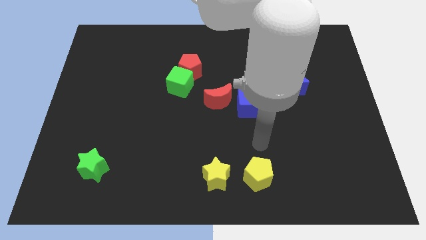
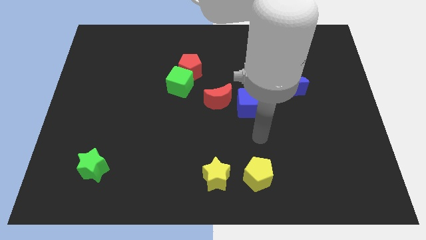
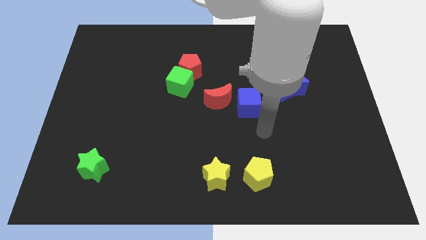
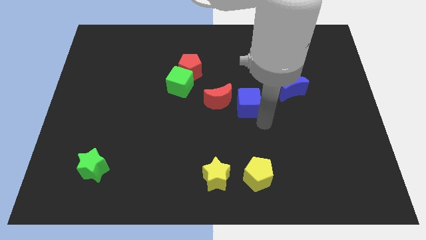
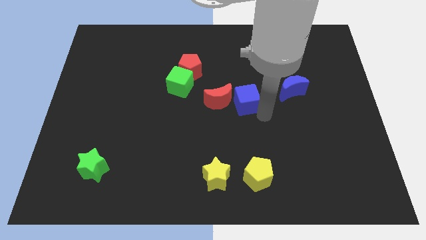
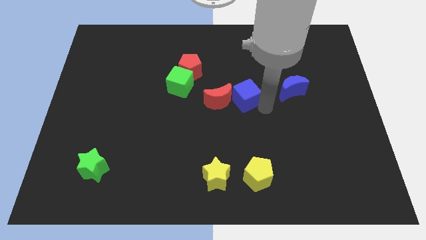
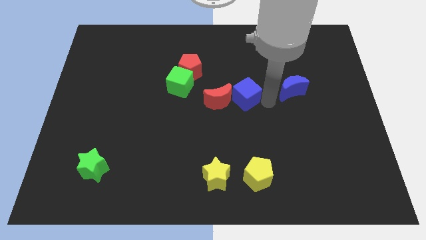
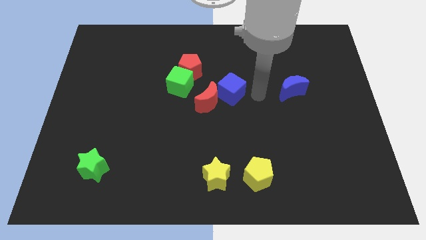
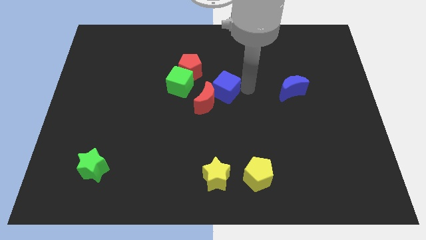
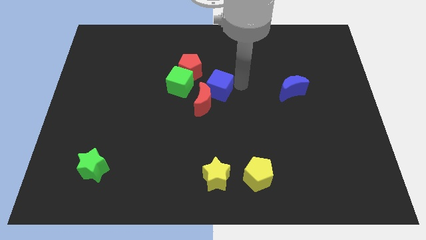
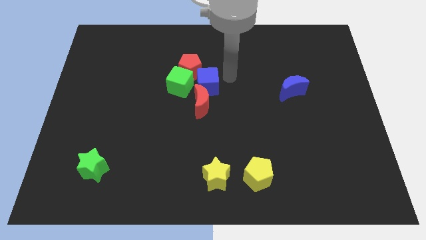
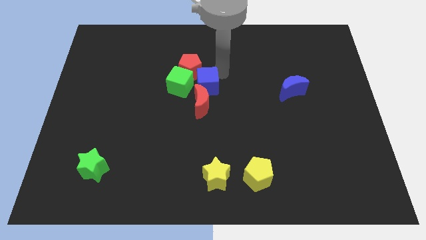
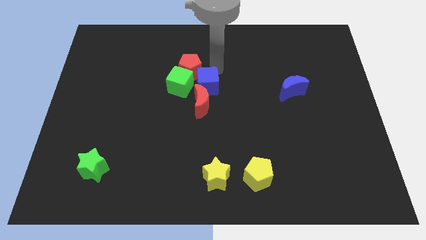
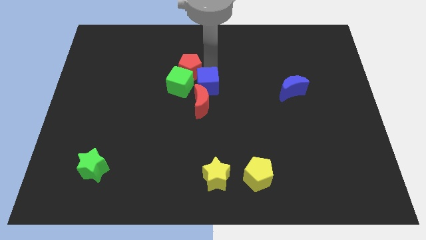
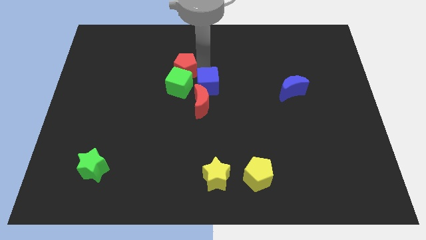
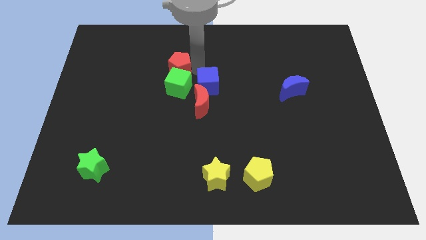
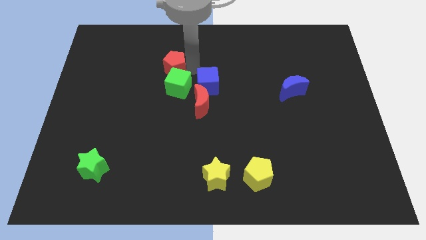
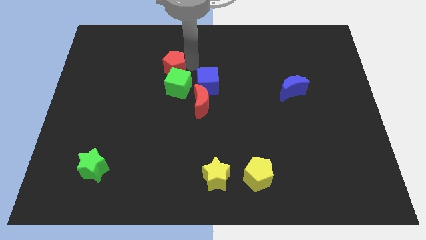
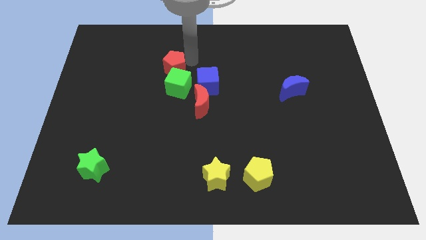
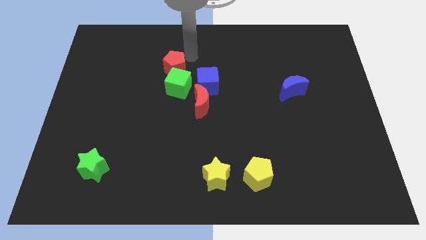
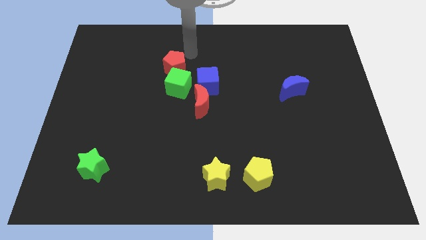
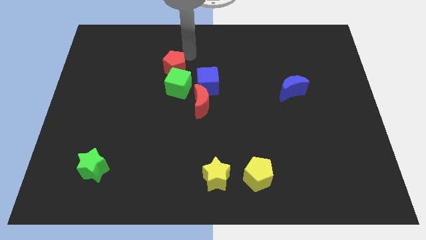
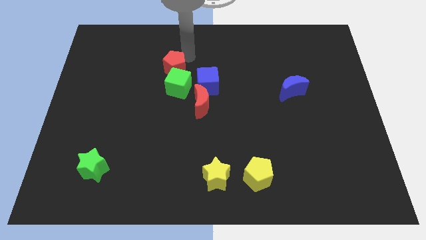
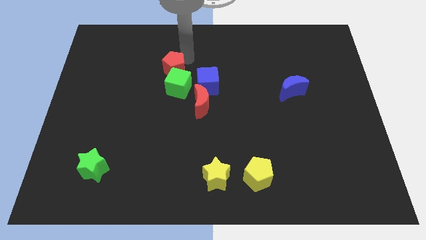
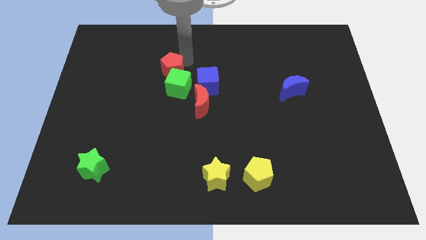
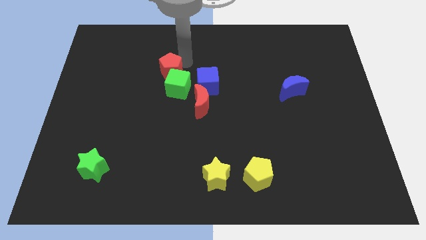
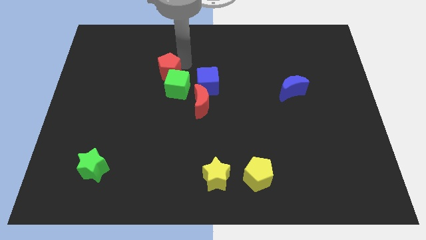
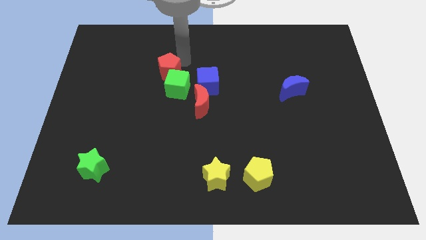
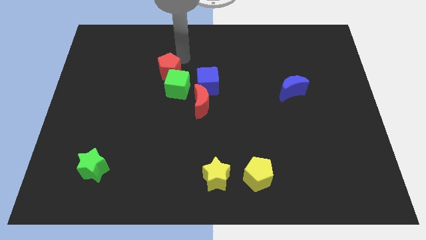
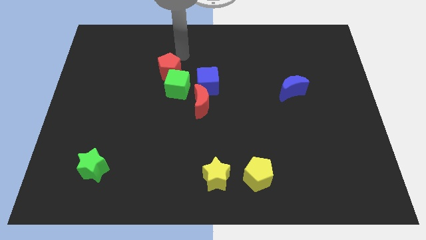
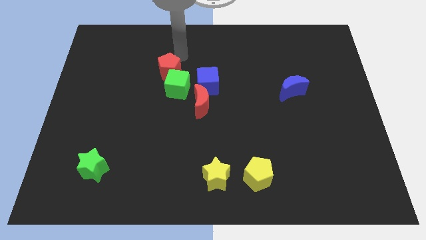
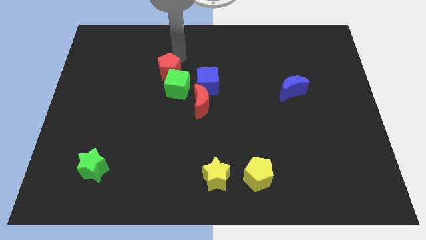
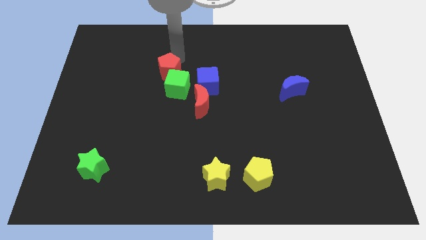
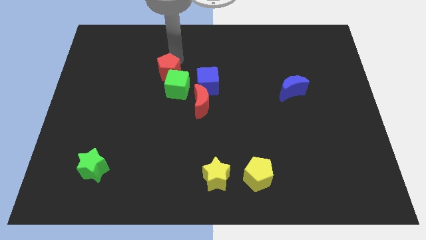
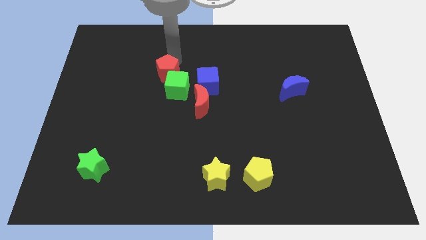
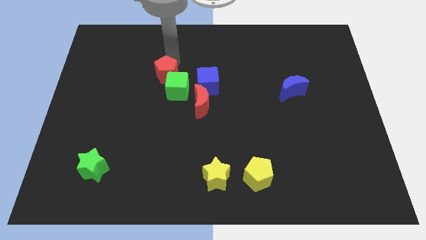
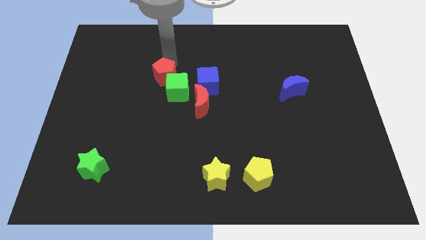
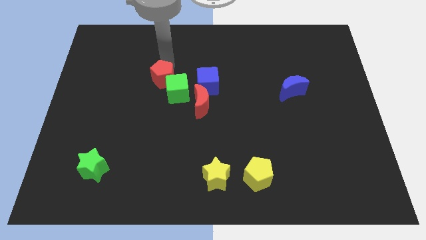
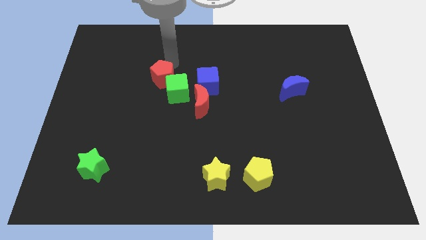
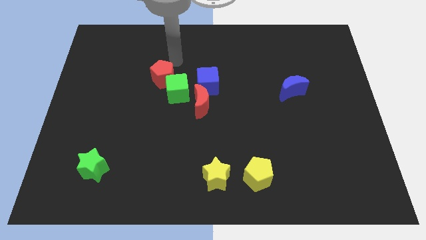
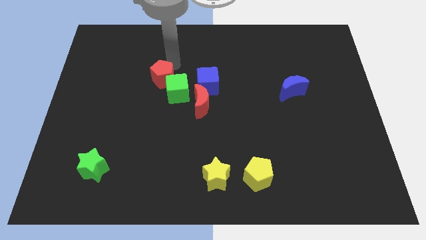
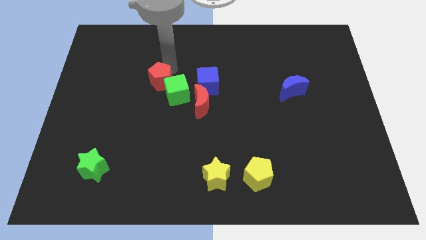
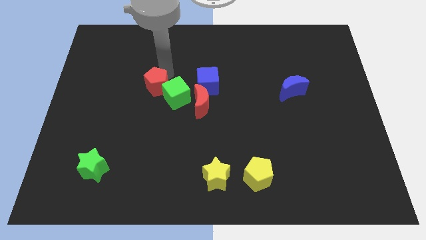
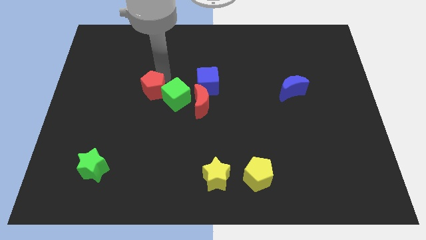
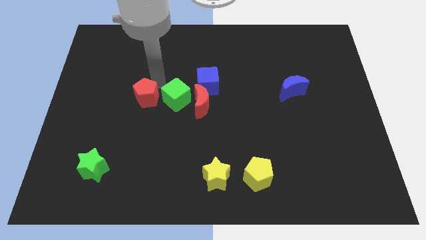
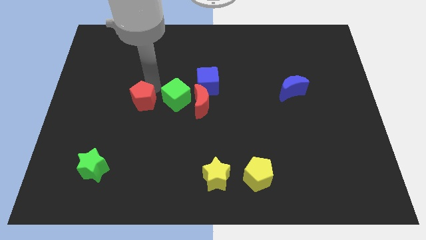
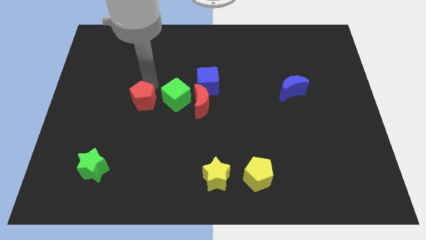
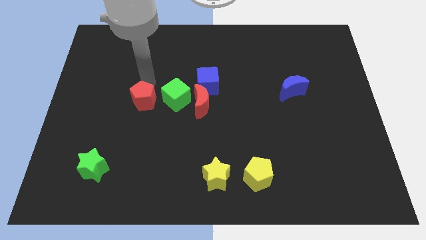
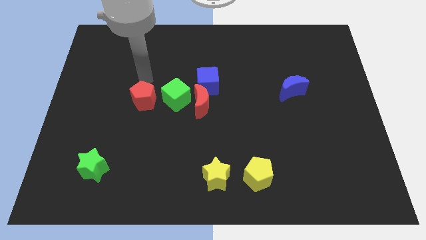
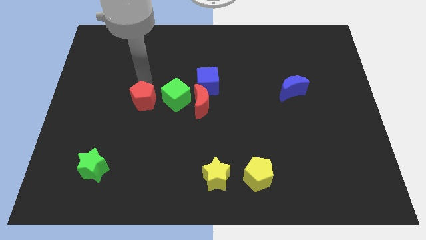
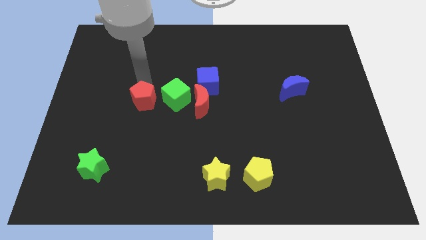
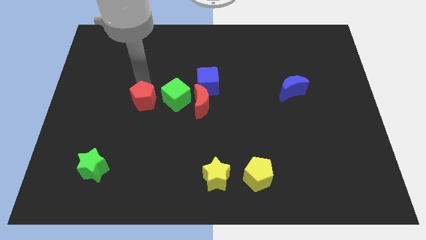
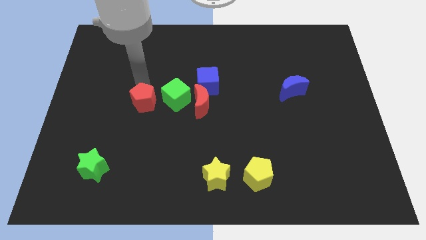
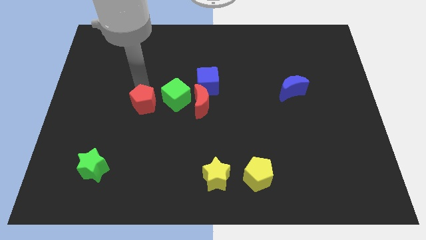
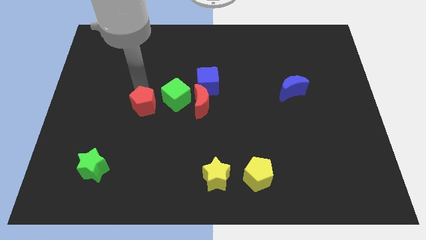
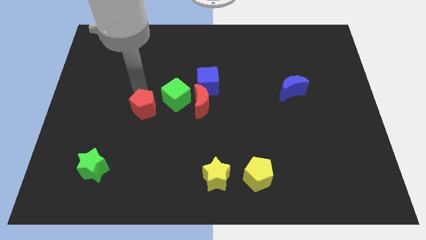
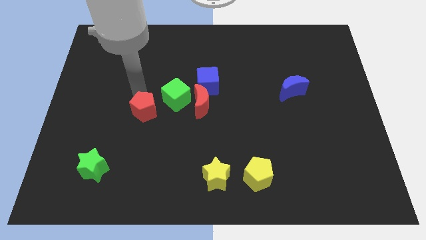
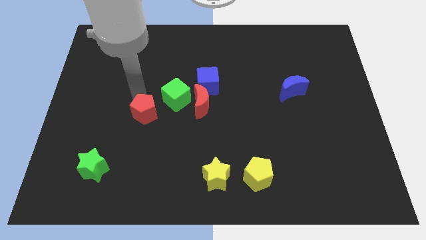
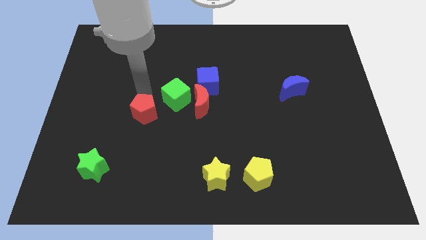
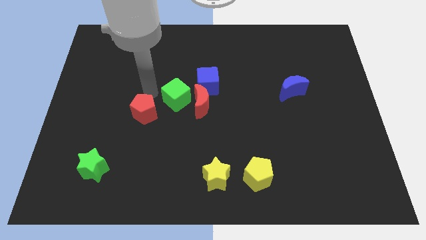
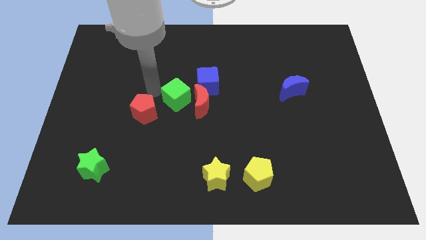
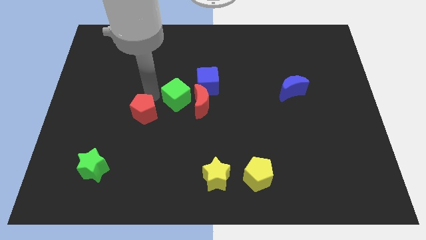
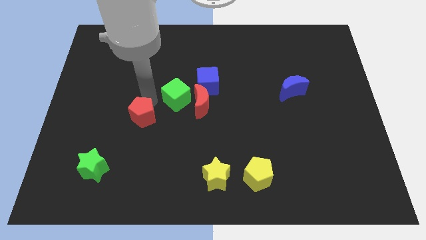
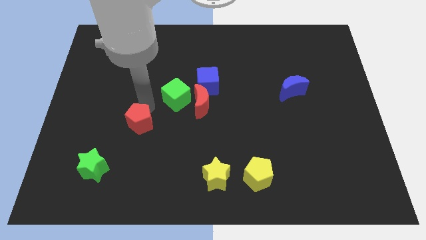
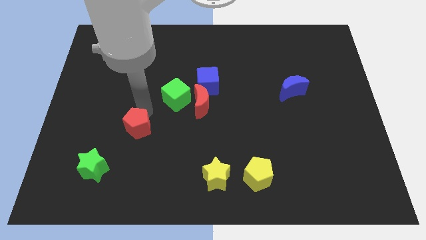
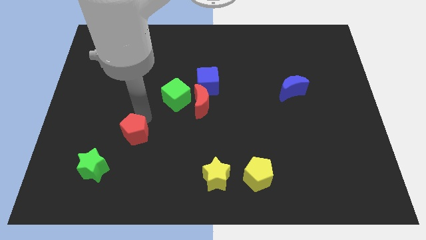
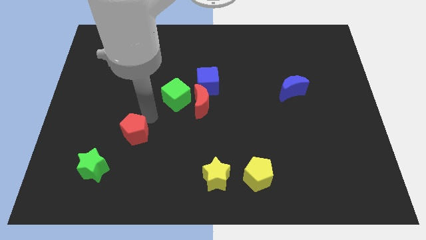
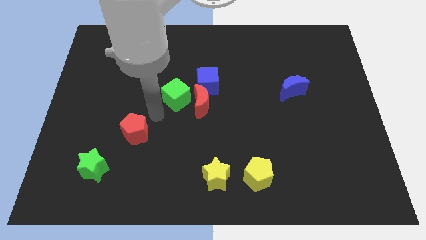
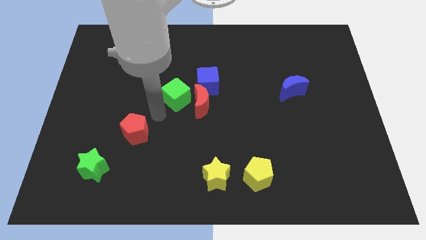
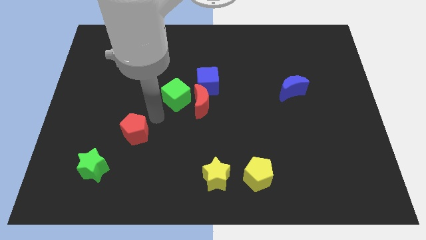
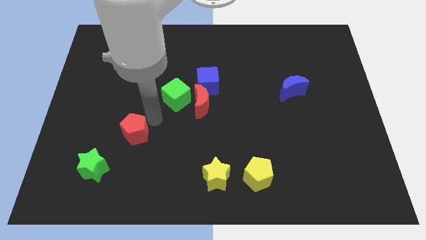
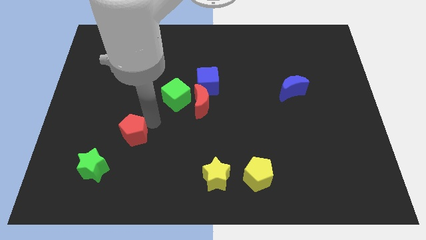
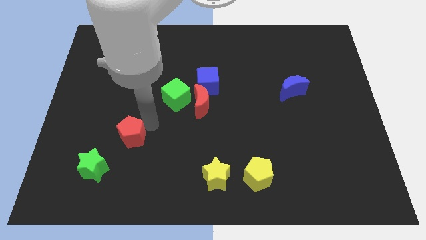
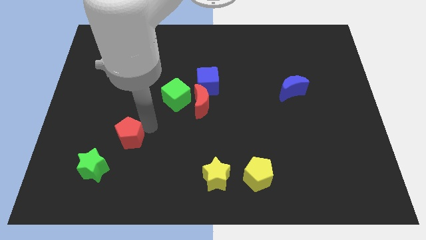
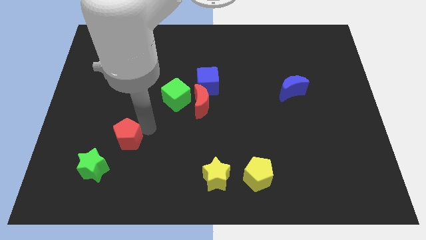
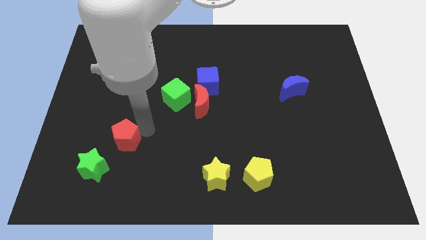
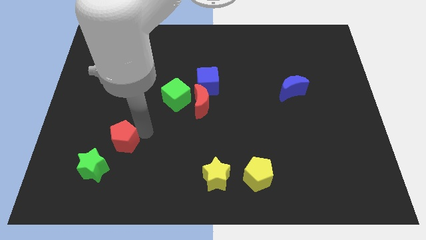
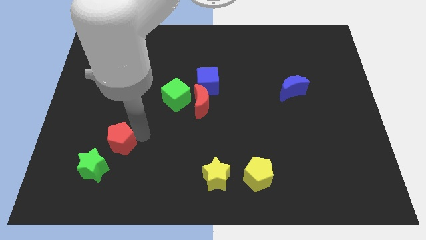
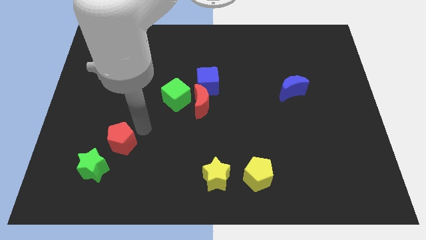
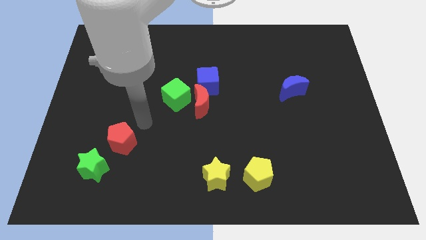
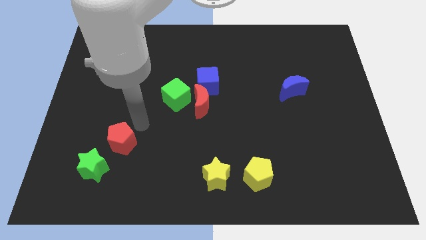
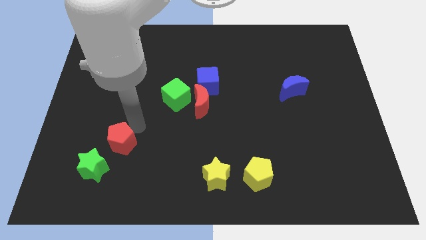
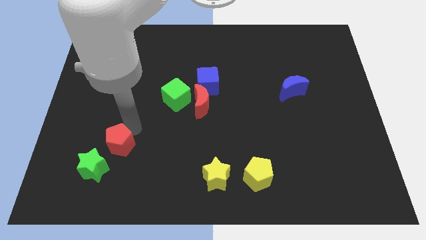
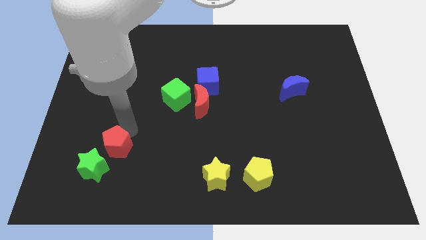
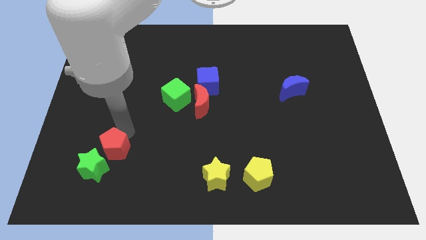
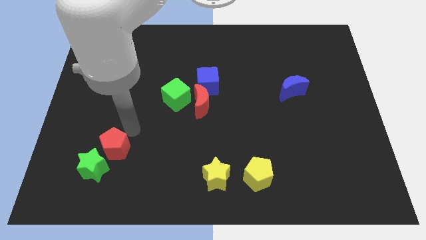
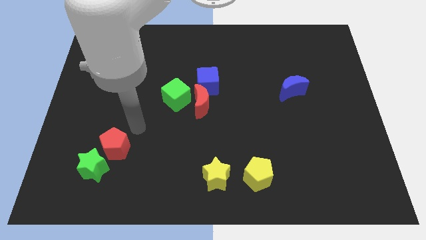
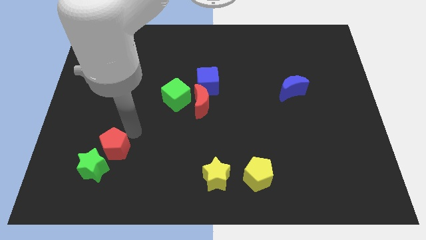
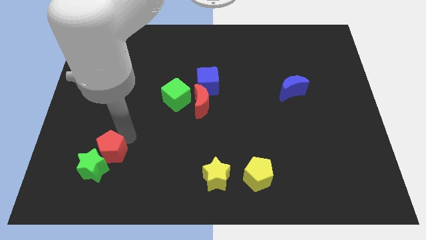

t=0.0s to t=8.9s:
put the red pentagon close to the green star
